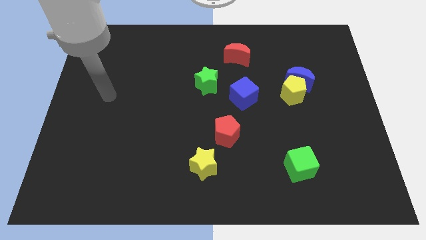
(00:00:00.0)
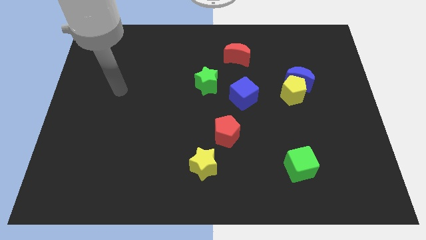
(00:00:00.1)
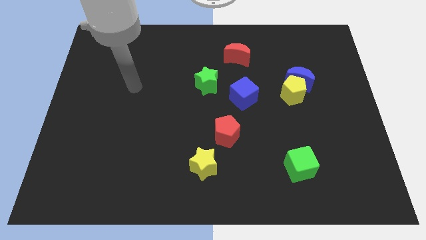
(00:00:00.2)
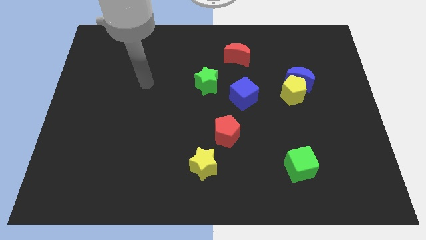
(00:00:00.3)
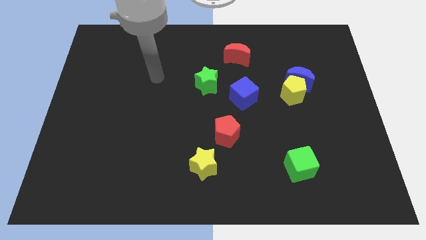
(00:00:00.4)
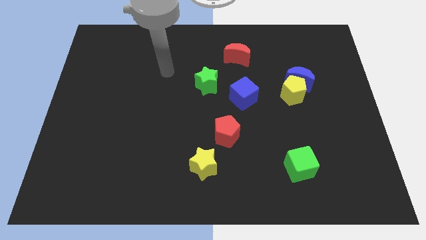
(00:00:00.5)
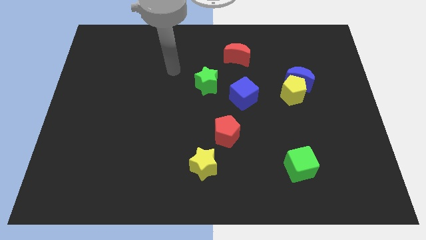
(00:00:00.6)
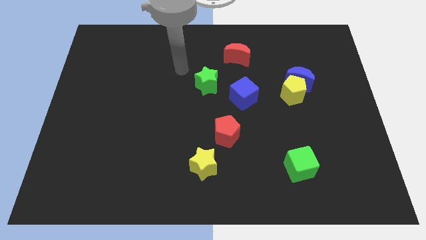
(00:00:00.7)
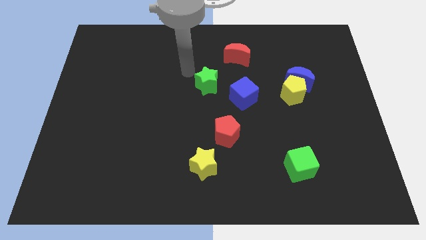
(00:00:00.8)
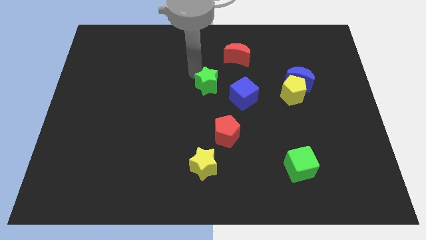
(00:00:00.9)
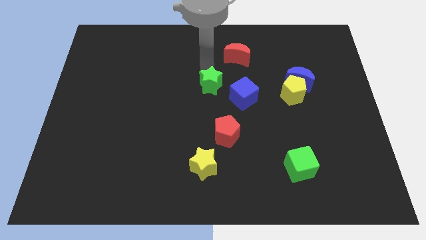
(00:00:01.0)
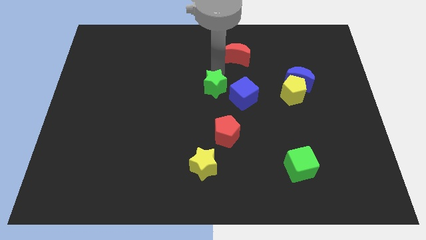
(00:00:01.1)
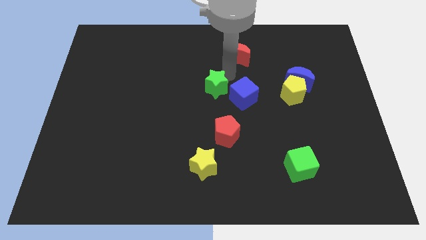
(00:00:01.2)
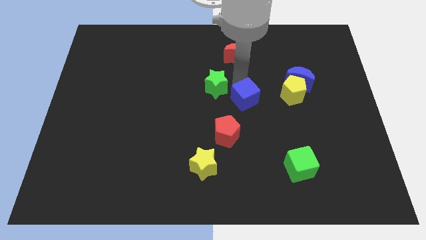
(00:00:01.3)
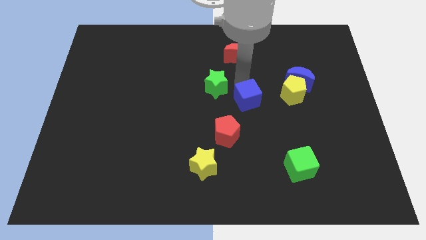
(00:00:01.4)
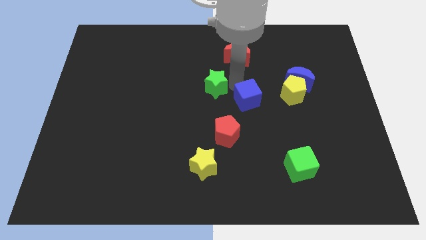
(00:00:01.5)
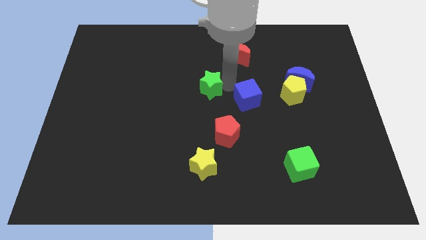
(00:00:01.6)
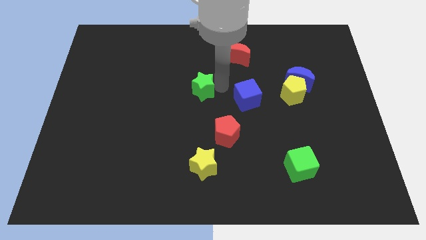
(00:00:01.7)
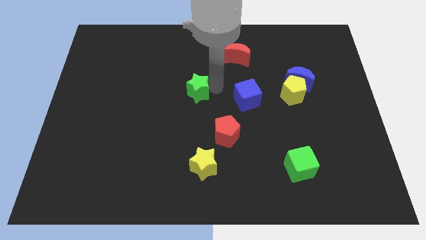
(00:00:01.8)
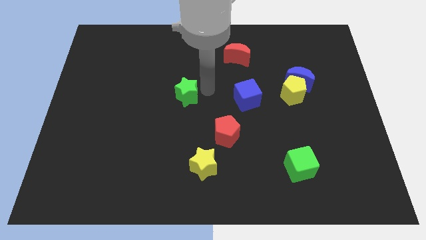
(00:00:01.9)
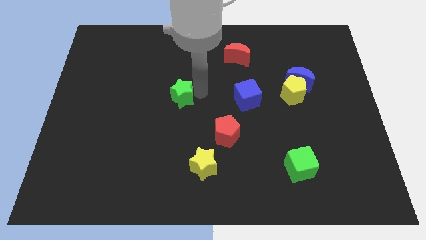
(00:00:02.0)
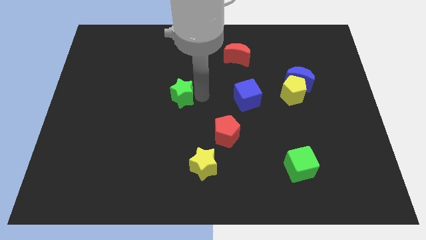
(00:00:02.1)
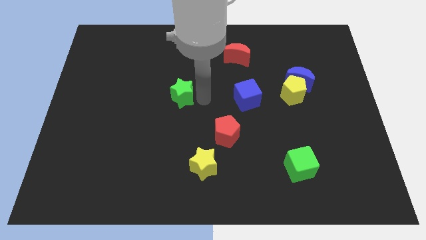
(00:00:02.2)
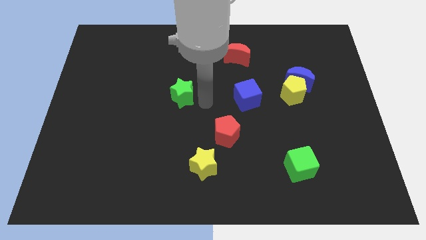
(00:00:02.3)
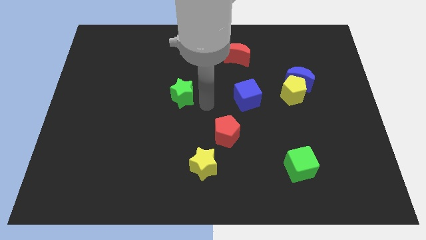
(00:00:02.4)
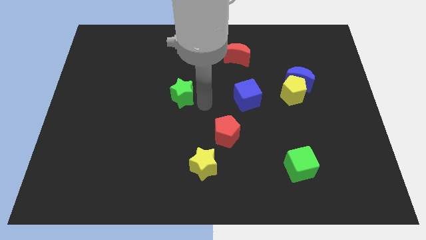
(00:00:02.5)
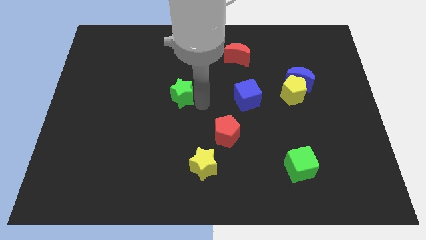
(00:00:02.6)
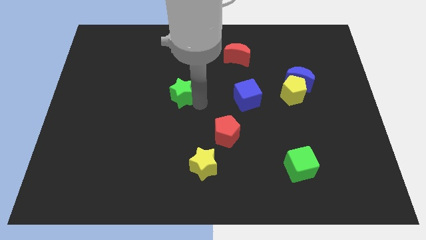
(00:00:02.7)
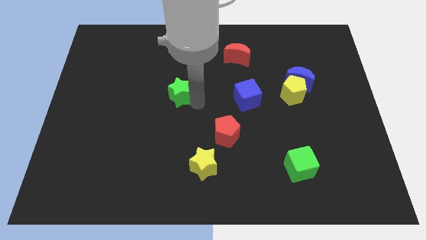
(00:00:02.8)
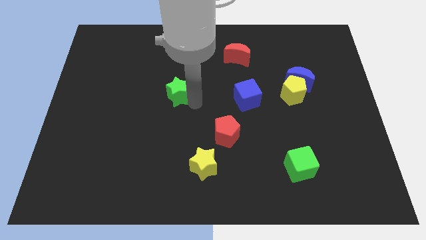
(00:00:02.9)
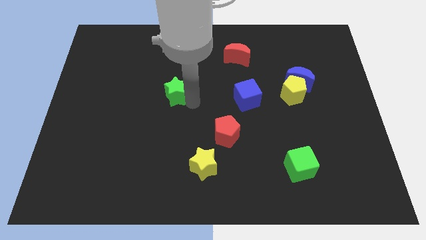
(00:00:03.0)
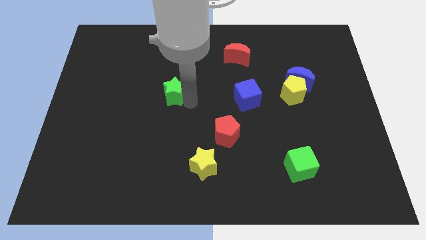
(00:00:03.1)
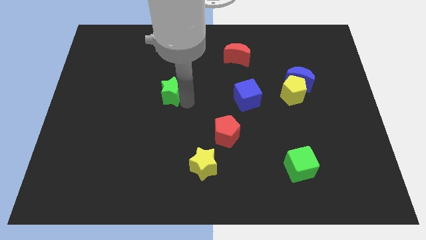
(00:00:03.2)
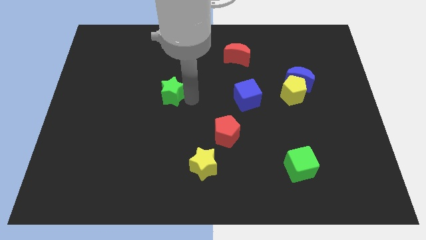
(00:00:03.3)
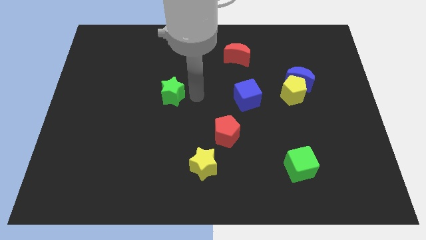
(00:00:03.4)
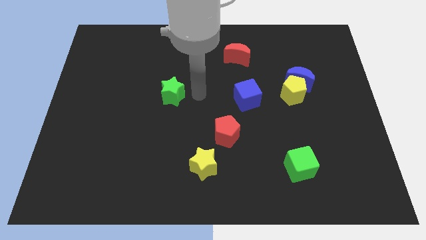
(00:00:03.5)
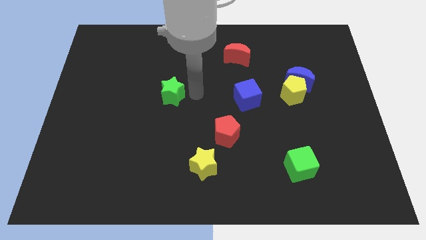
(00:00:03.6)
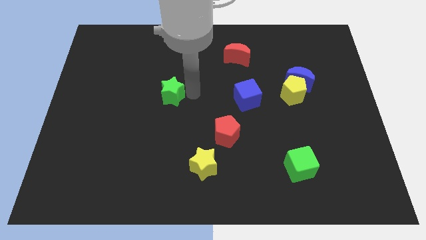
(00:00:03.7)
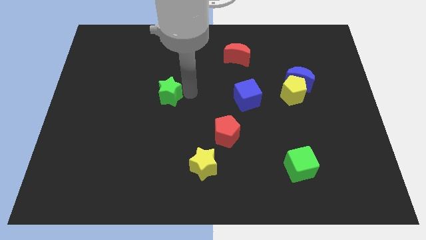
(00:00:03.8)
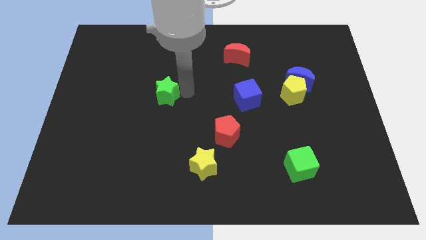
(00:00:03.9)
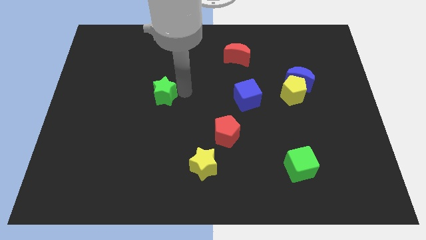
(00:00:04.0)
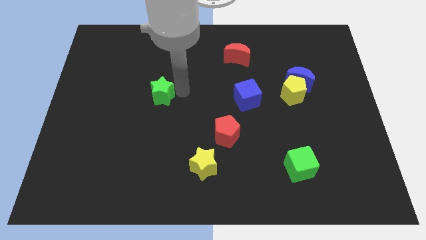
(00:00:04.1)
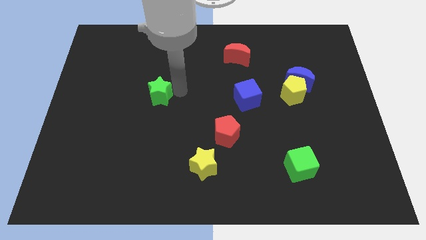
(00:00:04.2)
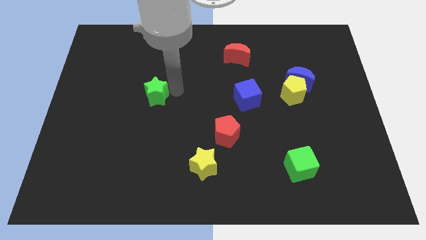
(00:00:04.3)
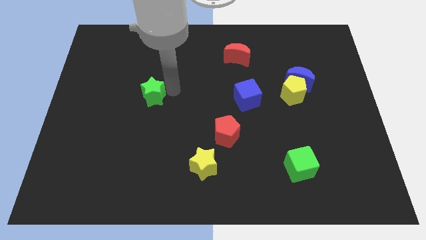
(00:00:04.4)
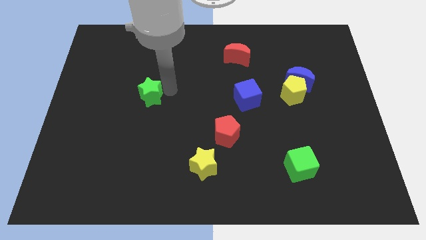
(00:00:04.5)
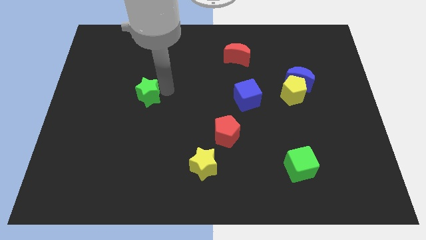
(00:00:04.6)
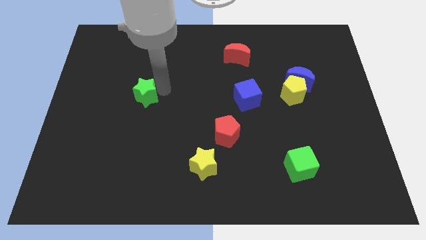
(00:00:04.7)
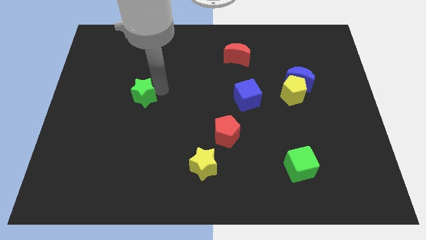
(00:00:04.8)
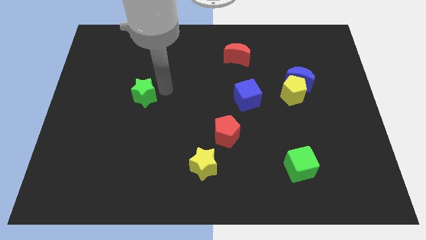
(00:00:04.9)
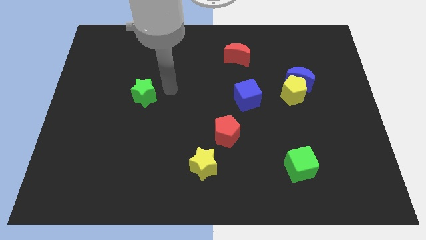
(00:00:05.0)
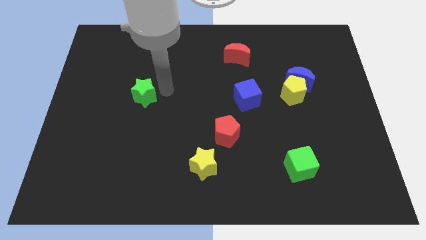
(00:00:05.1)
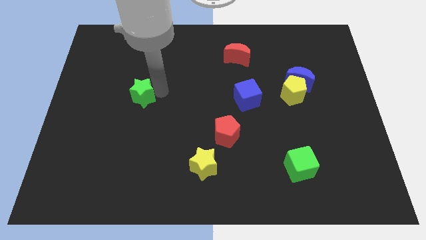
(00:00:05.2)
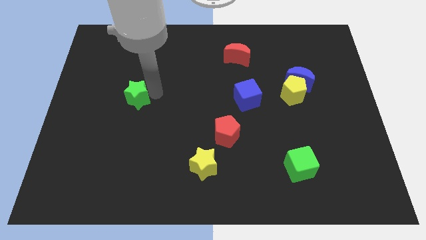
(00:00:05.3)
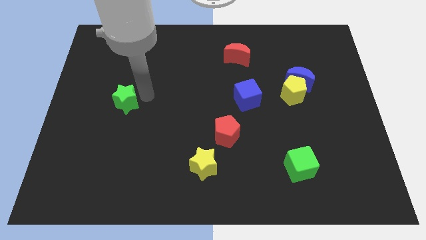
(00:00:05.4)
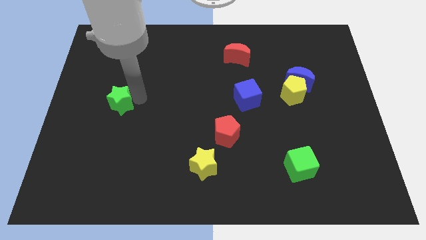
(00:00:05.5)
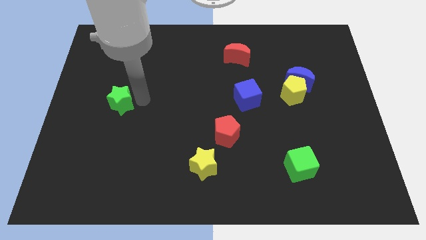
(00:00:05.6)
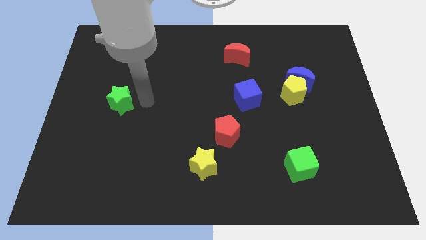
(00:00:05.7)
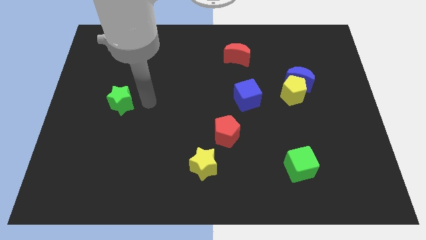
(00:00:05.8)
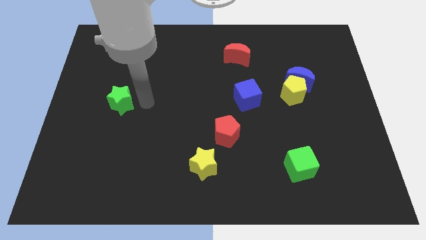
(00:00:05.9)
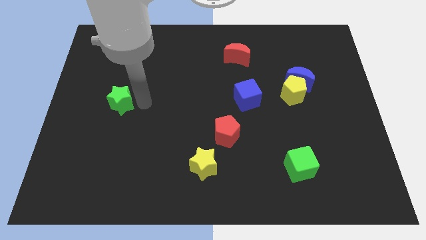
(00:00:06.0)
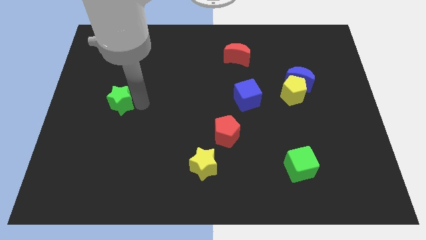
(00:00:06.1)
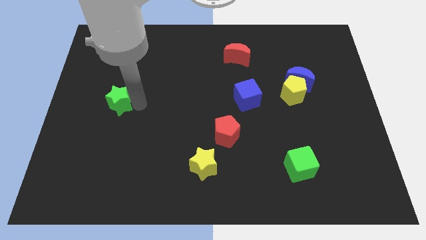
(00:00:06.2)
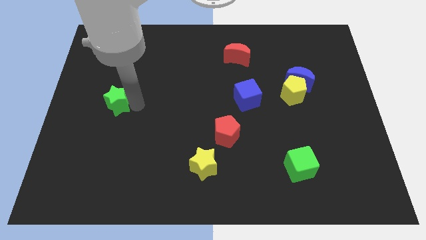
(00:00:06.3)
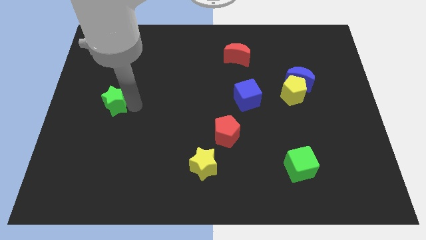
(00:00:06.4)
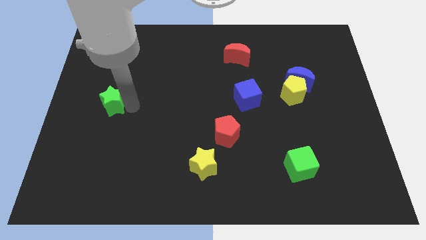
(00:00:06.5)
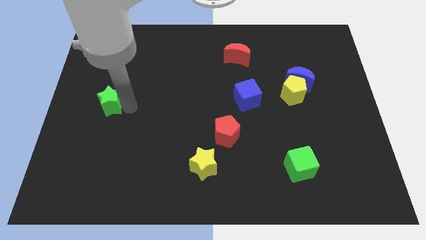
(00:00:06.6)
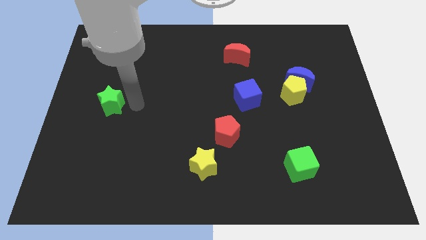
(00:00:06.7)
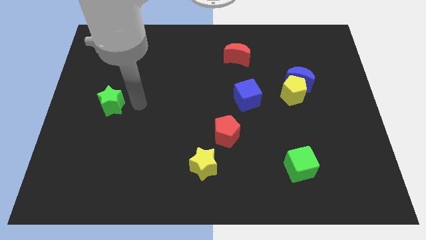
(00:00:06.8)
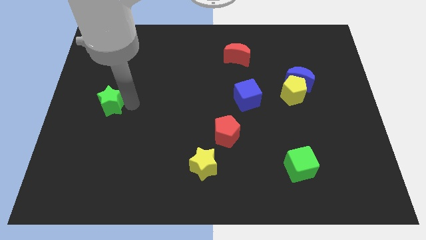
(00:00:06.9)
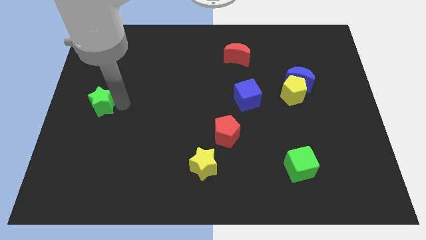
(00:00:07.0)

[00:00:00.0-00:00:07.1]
move the green star to the center left
